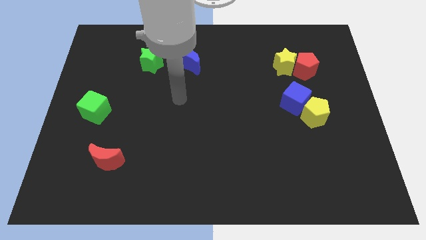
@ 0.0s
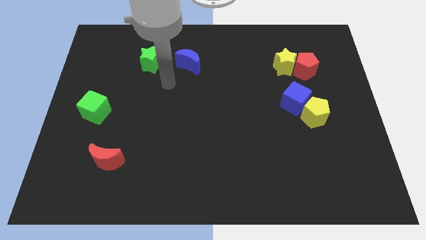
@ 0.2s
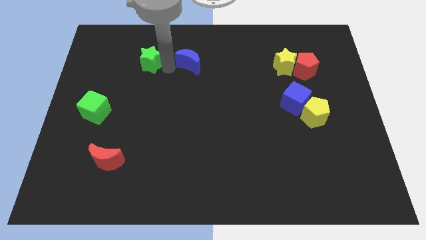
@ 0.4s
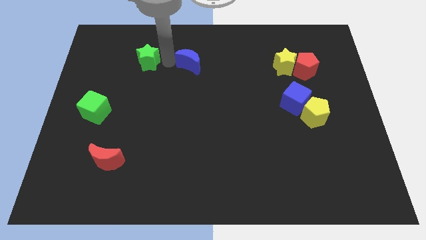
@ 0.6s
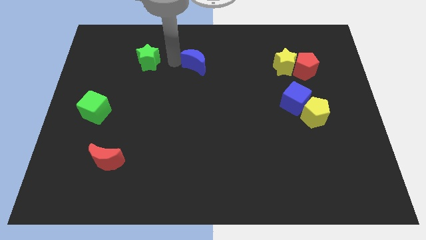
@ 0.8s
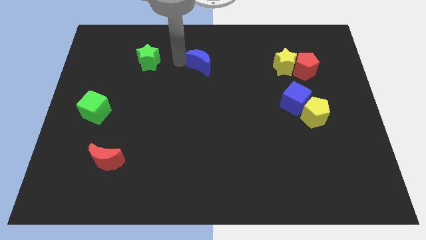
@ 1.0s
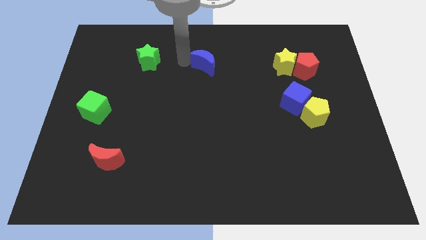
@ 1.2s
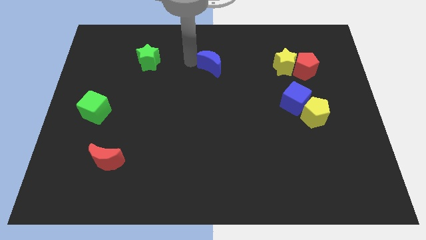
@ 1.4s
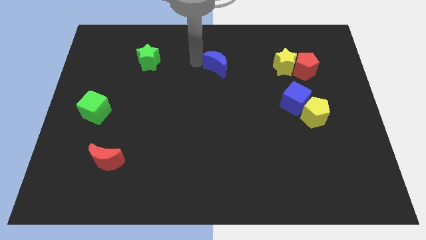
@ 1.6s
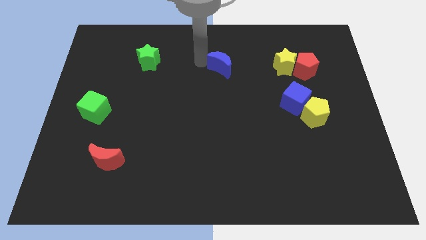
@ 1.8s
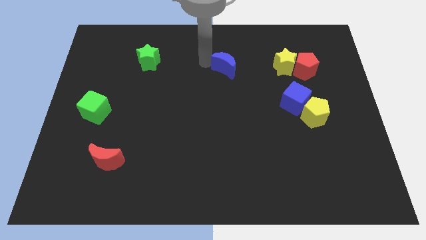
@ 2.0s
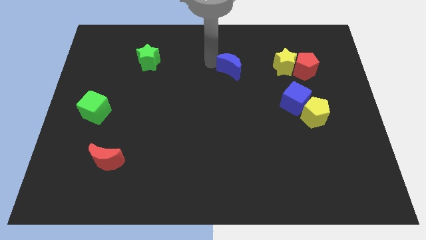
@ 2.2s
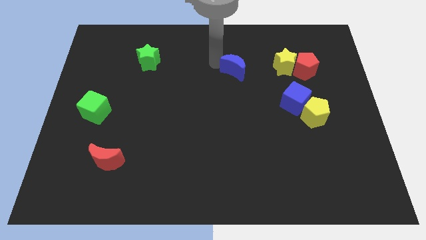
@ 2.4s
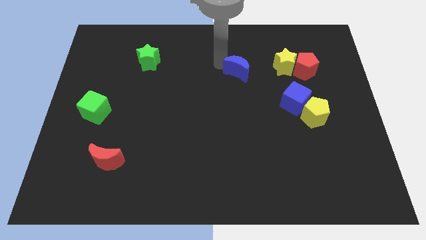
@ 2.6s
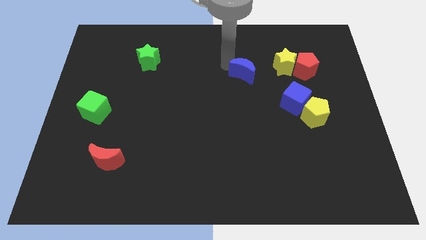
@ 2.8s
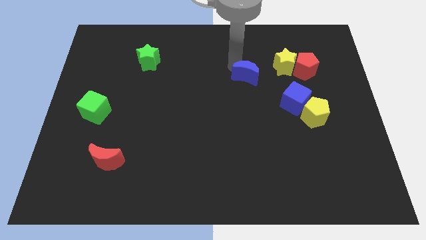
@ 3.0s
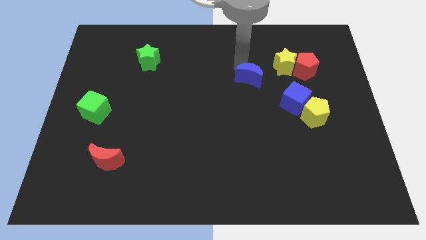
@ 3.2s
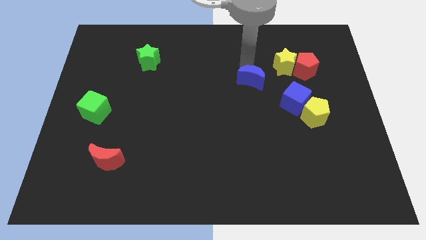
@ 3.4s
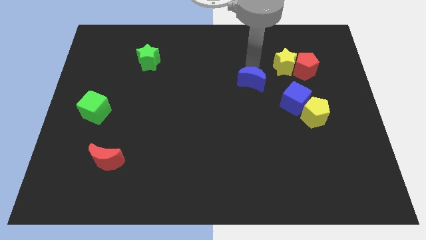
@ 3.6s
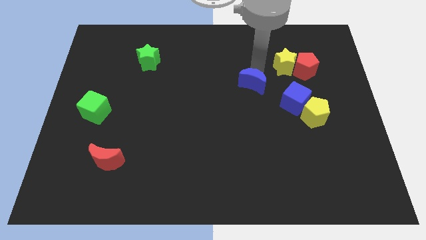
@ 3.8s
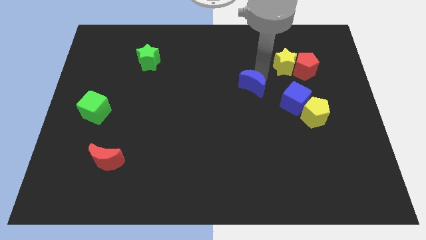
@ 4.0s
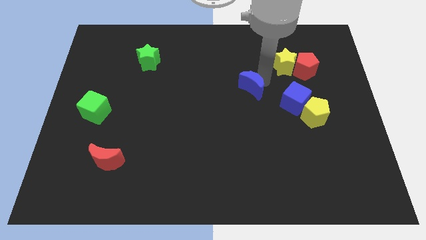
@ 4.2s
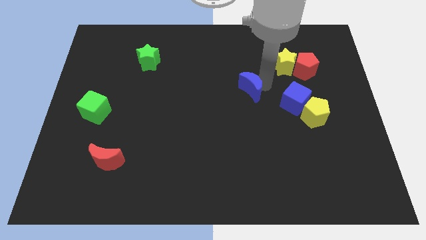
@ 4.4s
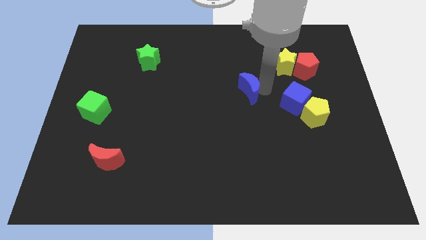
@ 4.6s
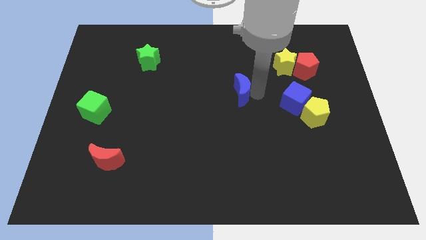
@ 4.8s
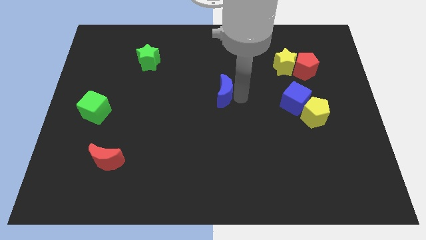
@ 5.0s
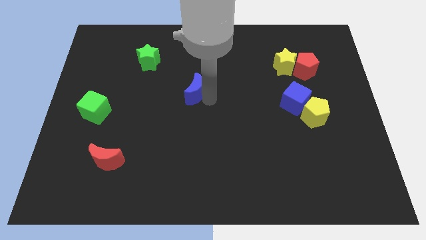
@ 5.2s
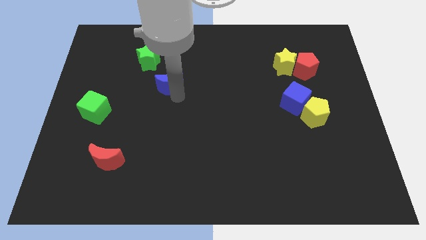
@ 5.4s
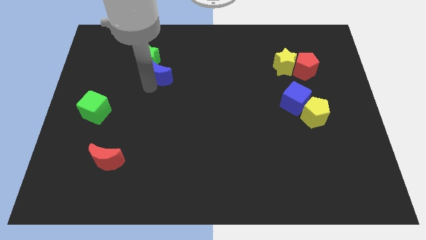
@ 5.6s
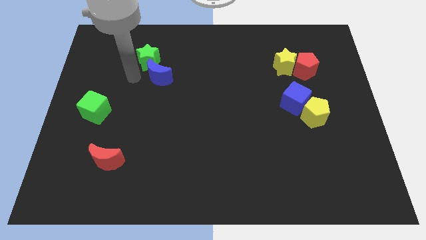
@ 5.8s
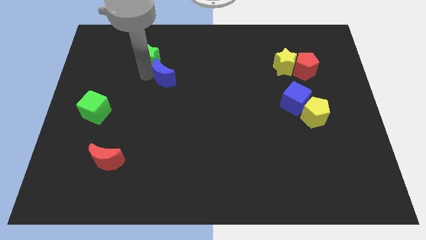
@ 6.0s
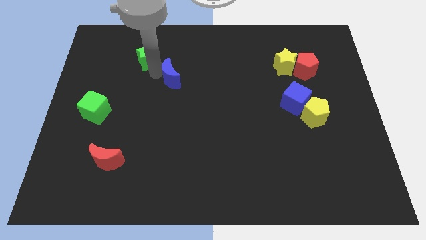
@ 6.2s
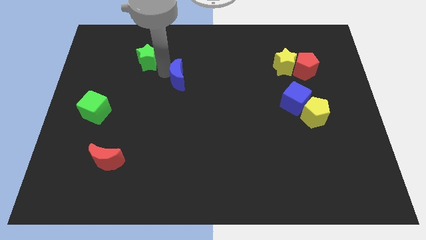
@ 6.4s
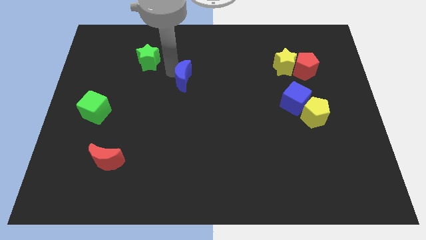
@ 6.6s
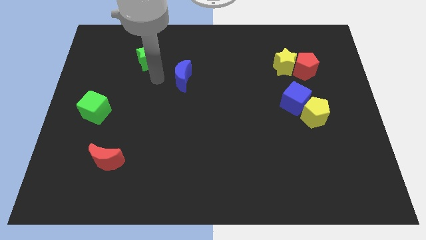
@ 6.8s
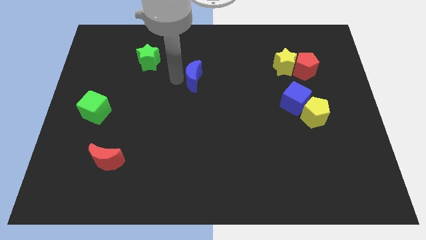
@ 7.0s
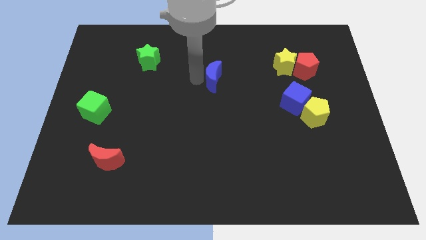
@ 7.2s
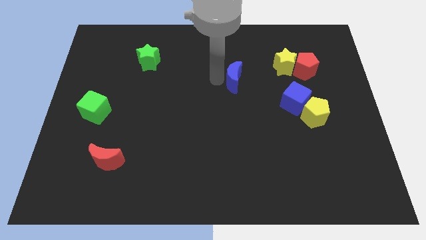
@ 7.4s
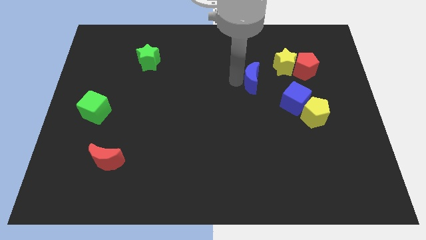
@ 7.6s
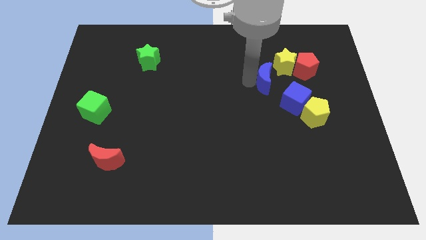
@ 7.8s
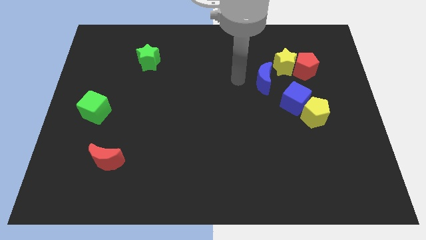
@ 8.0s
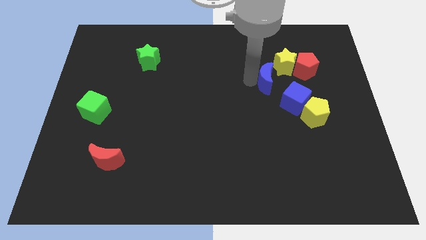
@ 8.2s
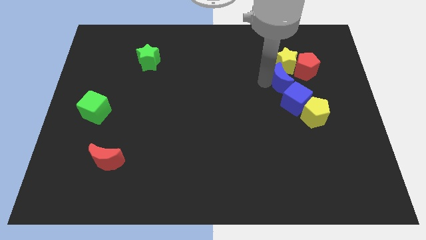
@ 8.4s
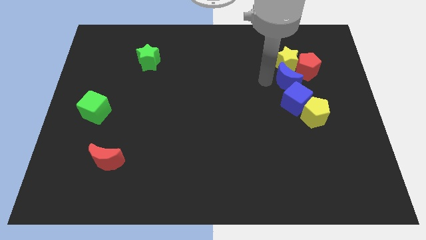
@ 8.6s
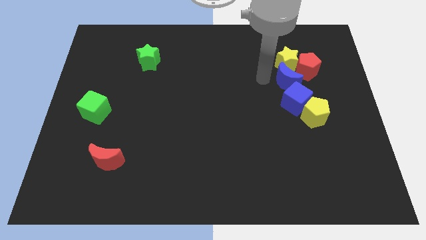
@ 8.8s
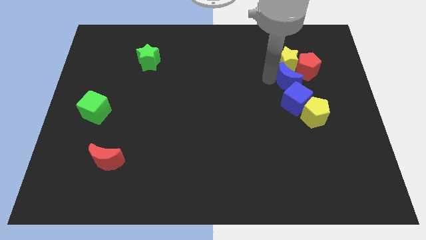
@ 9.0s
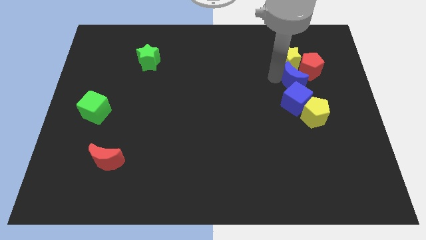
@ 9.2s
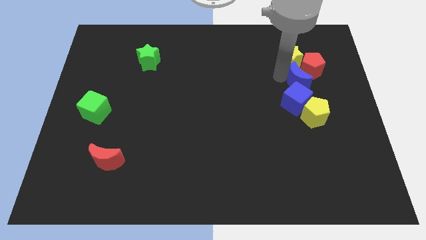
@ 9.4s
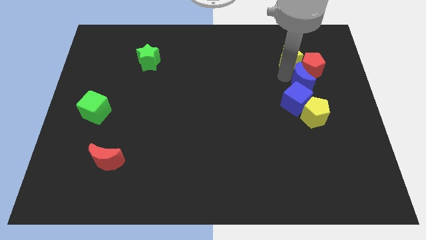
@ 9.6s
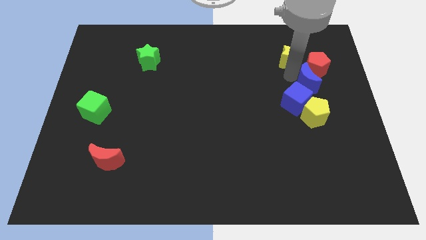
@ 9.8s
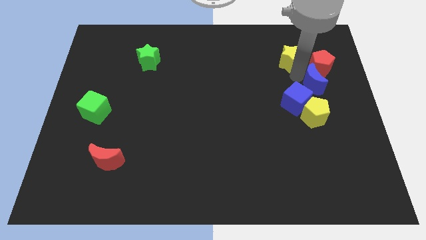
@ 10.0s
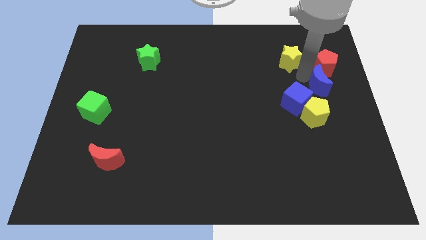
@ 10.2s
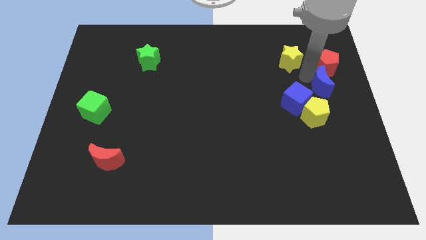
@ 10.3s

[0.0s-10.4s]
slide the blue moon to the top right of the yellow pentagon

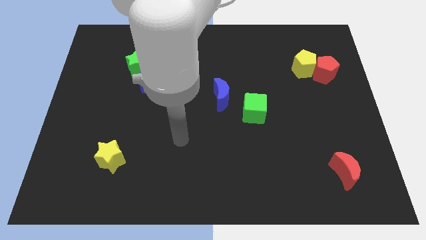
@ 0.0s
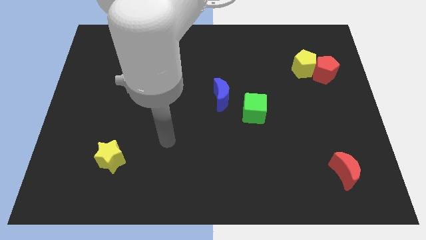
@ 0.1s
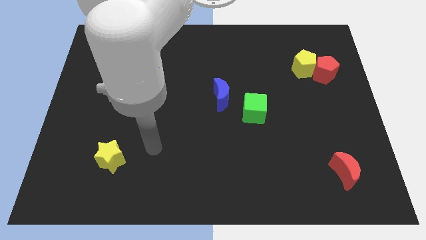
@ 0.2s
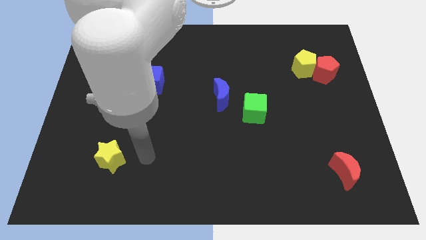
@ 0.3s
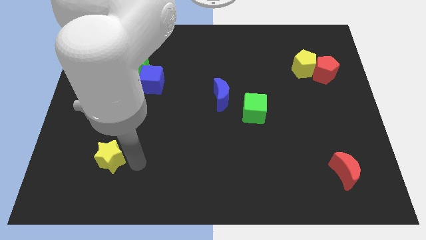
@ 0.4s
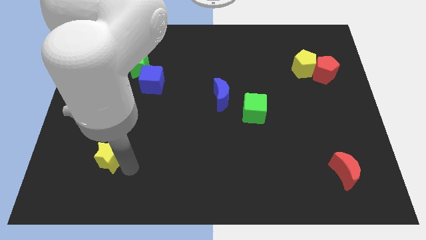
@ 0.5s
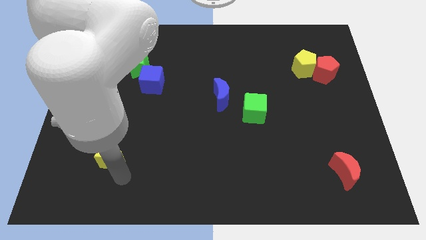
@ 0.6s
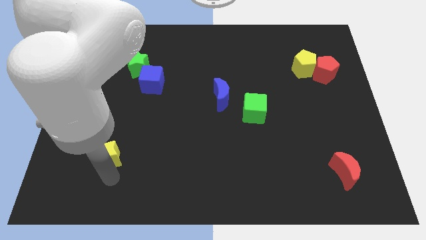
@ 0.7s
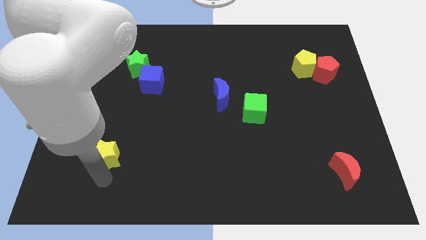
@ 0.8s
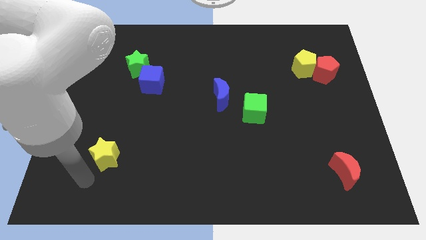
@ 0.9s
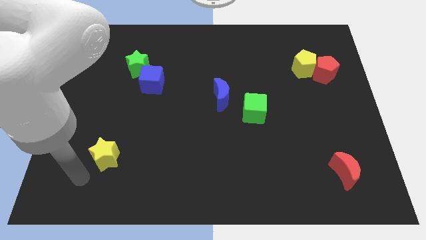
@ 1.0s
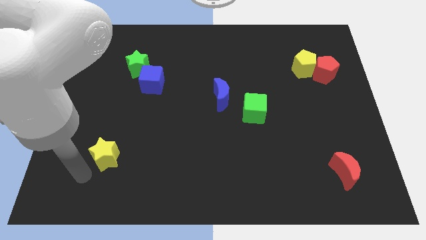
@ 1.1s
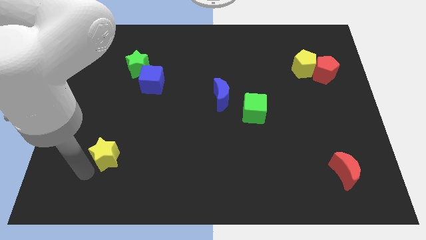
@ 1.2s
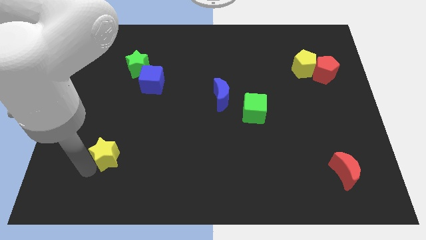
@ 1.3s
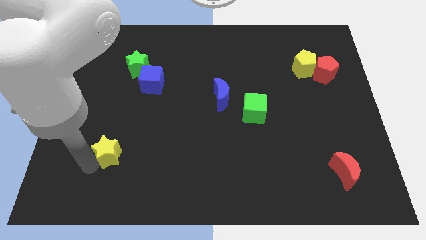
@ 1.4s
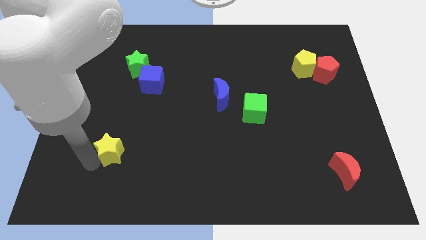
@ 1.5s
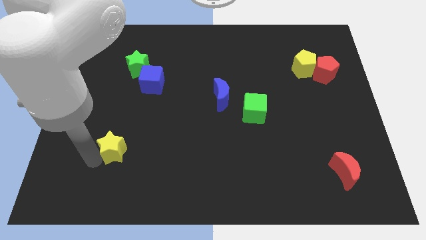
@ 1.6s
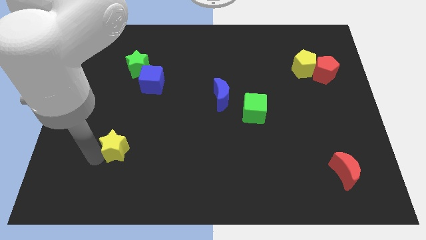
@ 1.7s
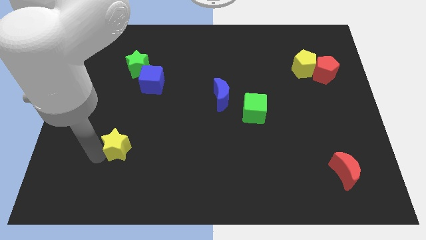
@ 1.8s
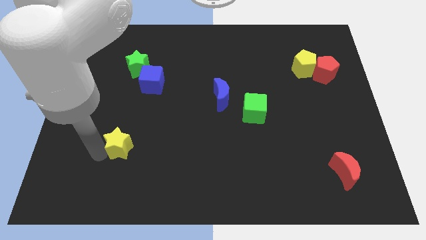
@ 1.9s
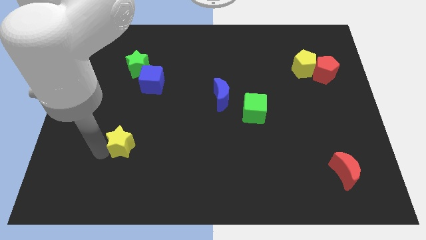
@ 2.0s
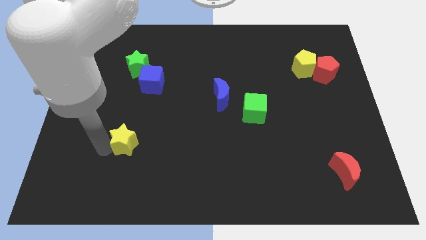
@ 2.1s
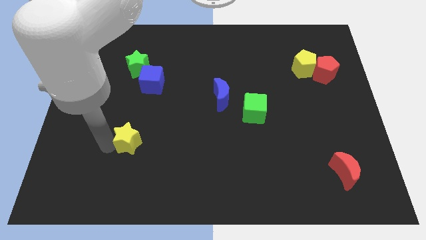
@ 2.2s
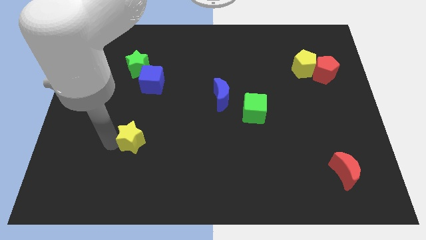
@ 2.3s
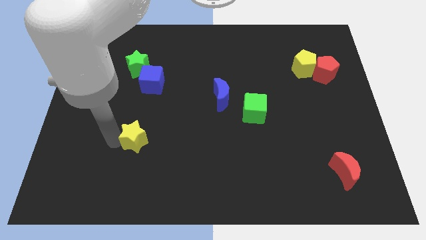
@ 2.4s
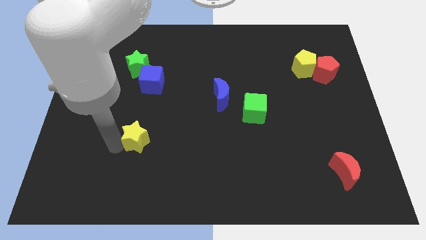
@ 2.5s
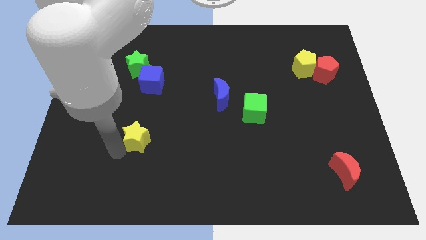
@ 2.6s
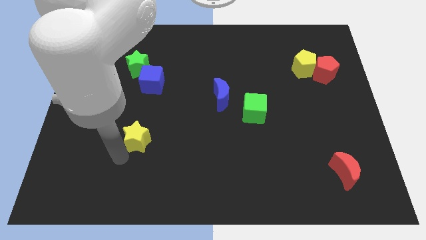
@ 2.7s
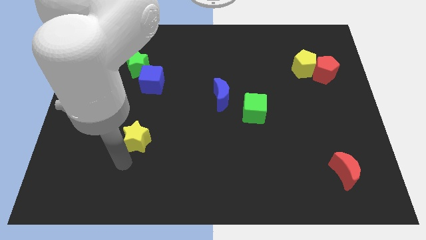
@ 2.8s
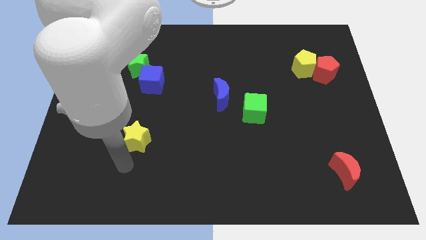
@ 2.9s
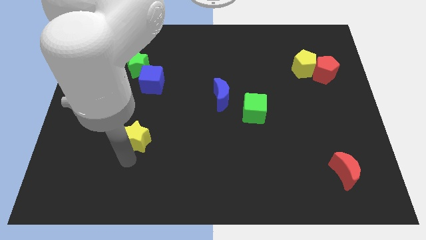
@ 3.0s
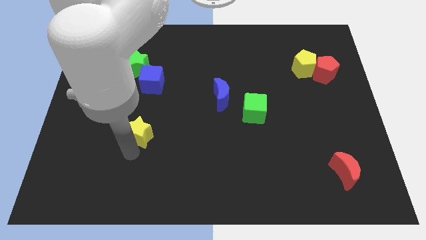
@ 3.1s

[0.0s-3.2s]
put the yellow star to the bottom side of the blue cube
